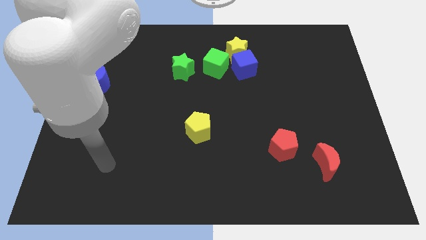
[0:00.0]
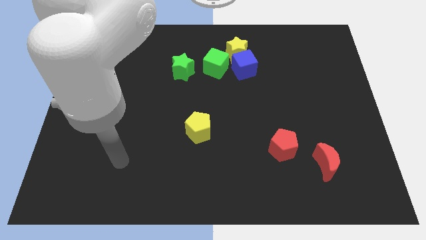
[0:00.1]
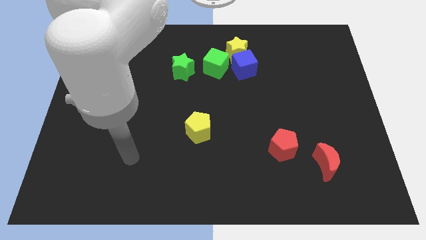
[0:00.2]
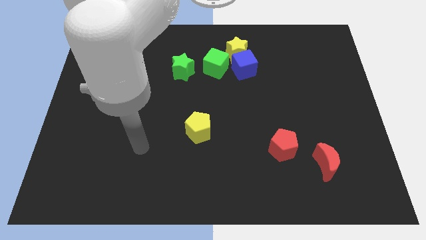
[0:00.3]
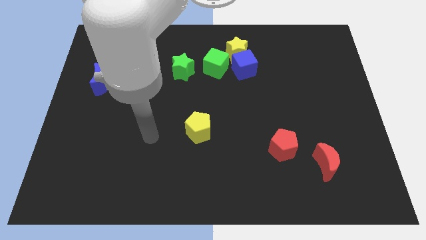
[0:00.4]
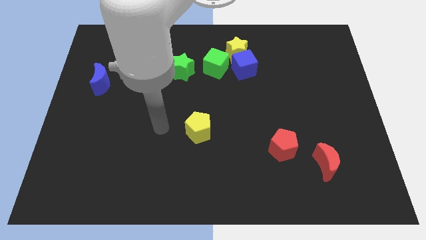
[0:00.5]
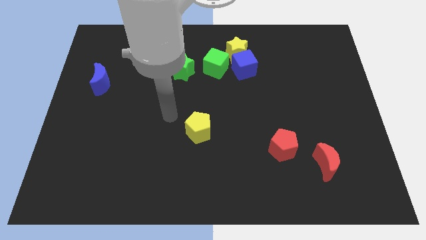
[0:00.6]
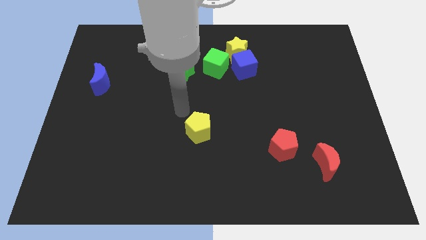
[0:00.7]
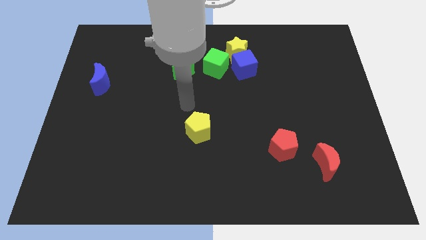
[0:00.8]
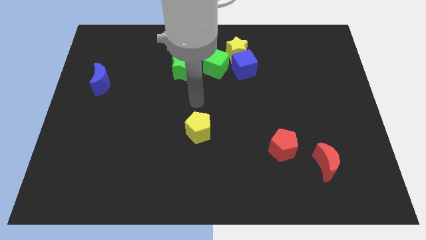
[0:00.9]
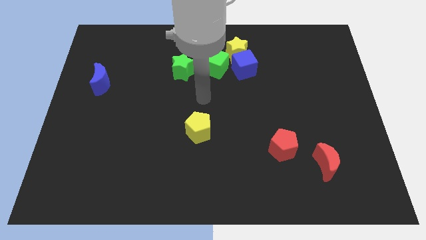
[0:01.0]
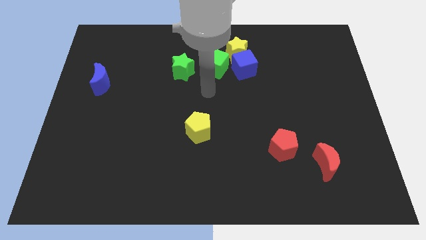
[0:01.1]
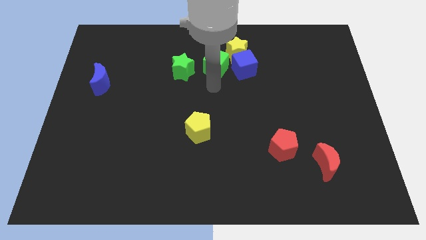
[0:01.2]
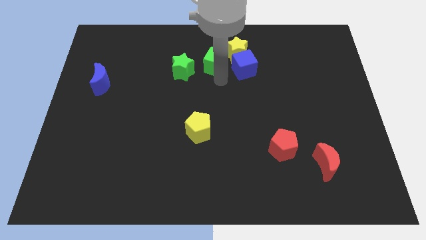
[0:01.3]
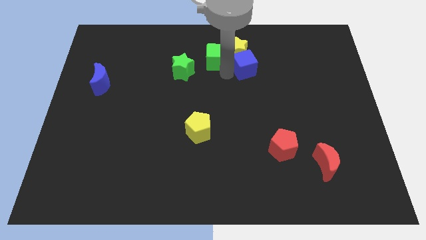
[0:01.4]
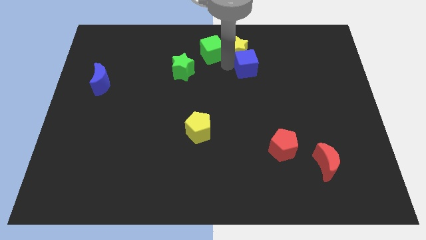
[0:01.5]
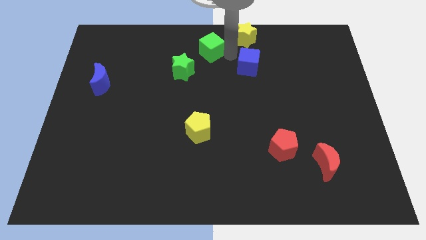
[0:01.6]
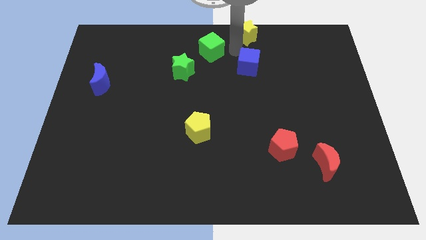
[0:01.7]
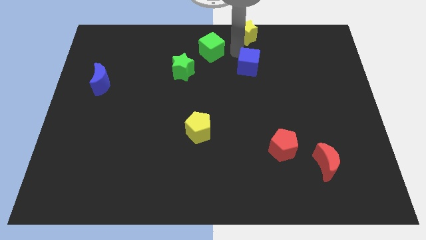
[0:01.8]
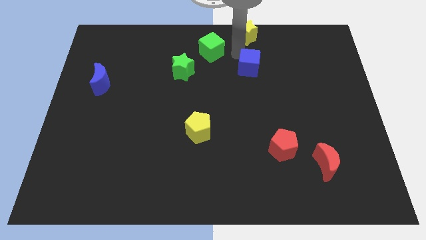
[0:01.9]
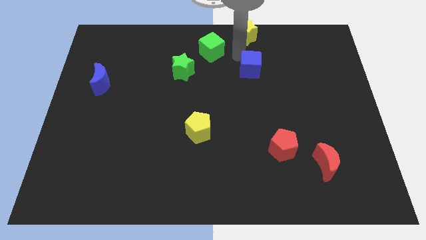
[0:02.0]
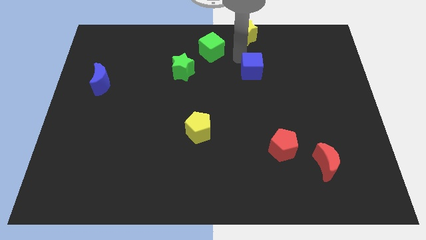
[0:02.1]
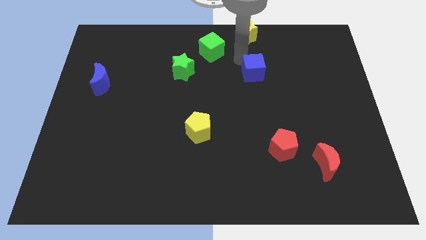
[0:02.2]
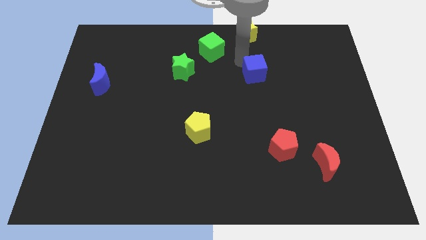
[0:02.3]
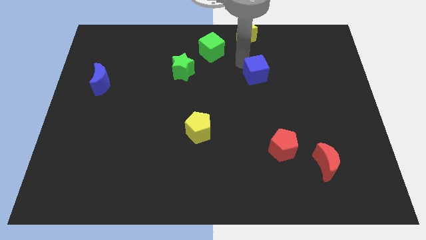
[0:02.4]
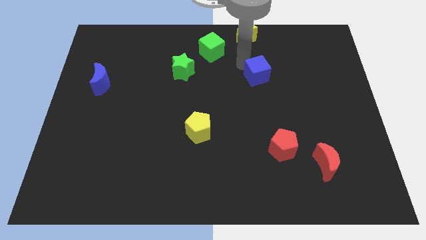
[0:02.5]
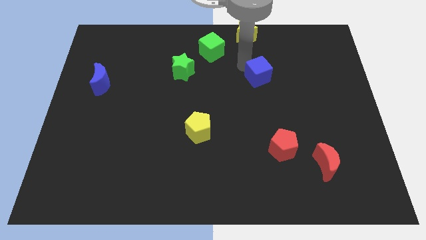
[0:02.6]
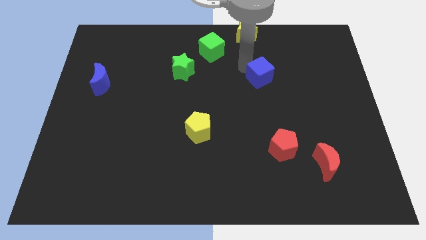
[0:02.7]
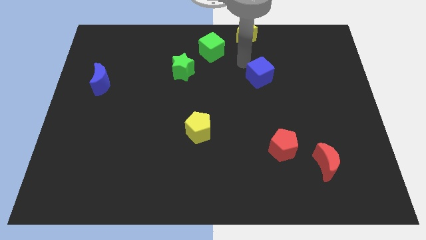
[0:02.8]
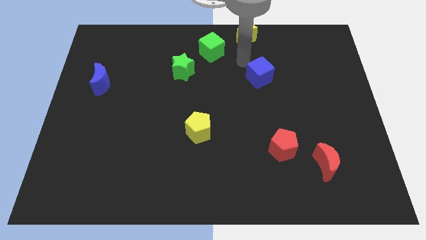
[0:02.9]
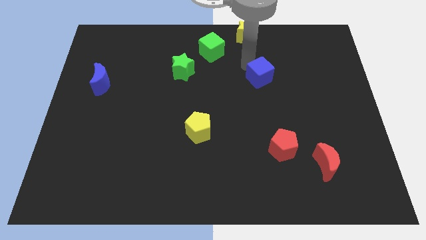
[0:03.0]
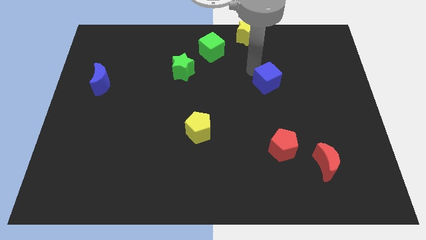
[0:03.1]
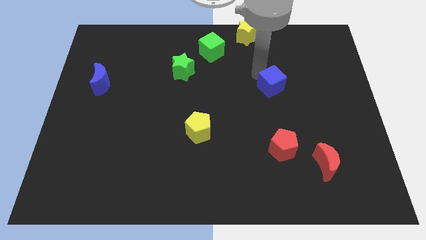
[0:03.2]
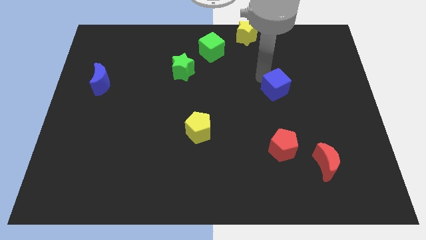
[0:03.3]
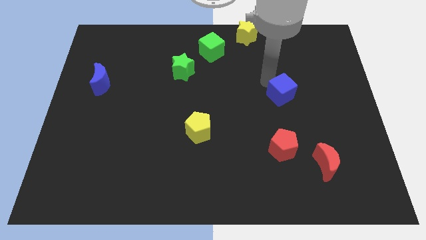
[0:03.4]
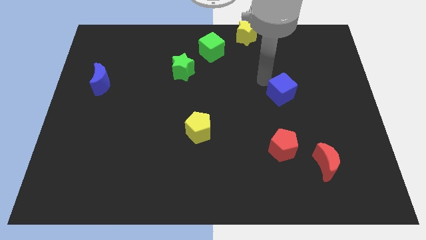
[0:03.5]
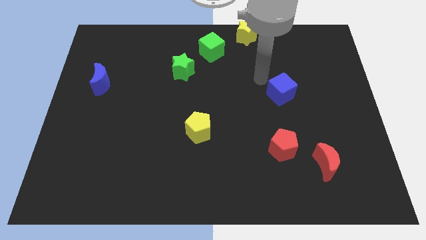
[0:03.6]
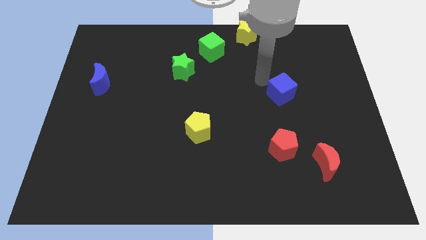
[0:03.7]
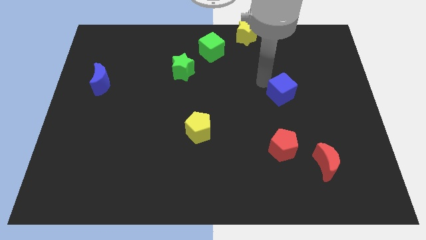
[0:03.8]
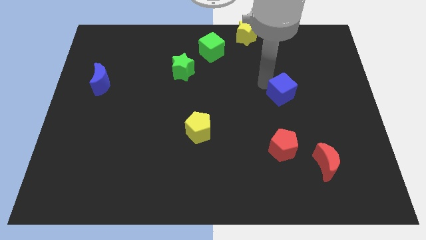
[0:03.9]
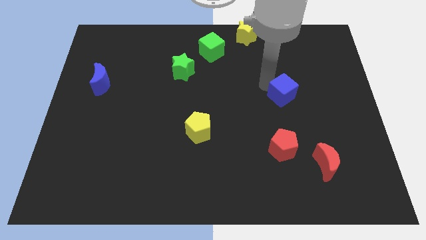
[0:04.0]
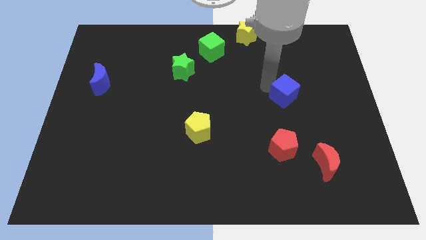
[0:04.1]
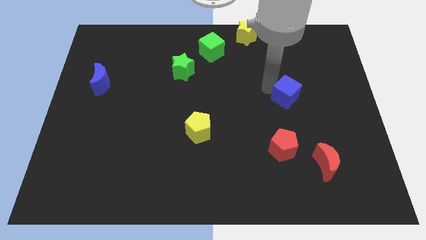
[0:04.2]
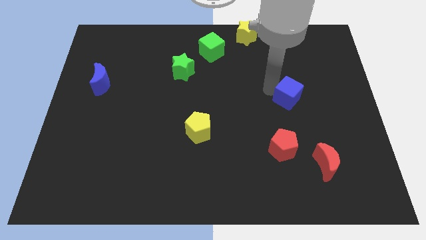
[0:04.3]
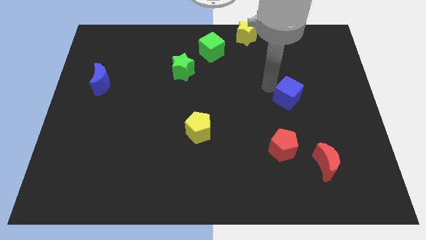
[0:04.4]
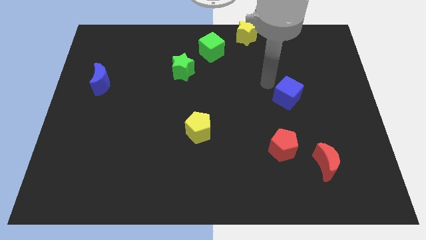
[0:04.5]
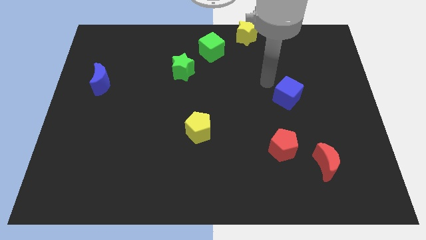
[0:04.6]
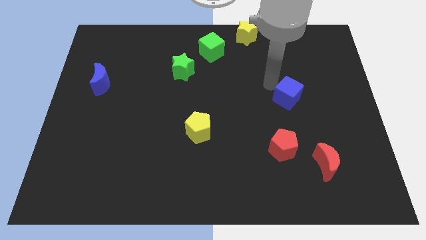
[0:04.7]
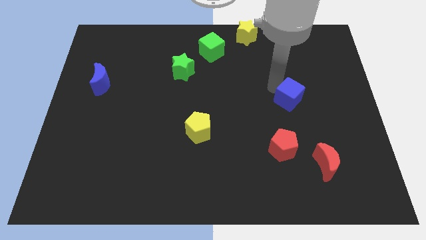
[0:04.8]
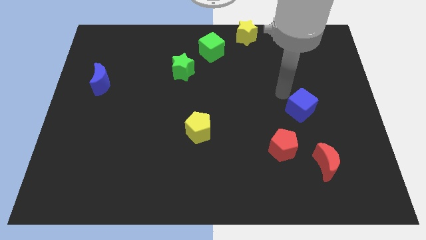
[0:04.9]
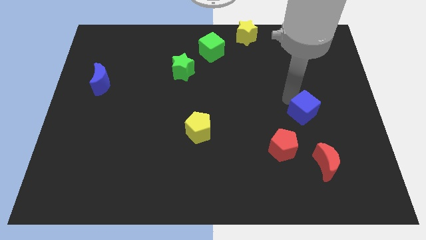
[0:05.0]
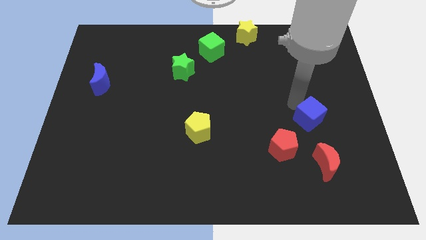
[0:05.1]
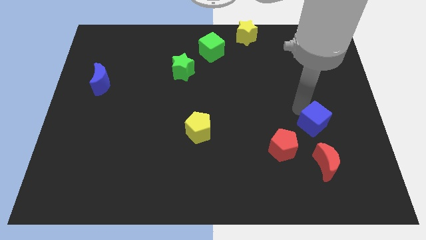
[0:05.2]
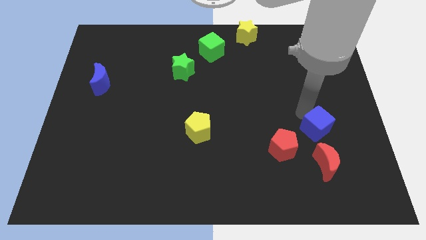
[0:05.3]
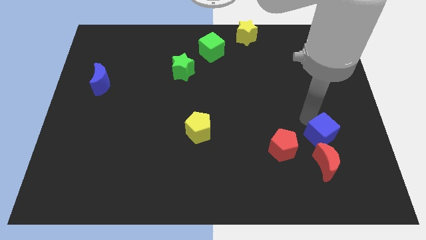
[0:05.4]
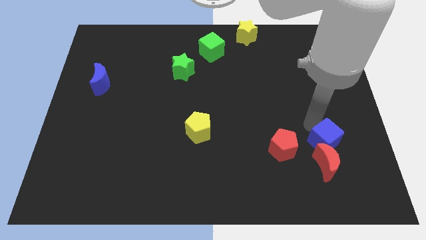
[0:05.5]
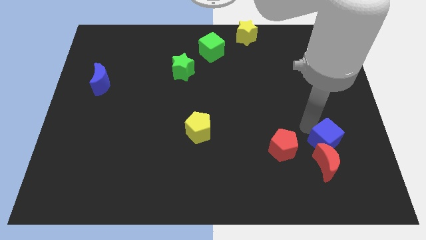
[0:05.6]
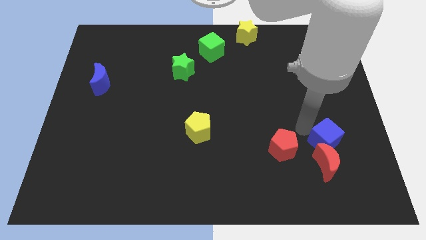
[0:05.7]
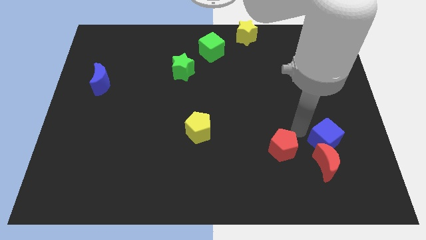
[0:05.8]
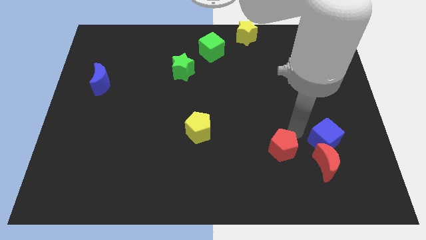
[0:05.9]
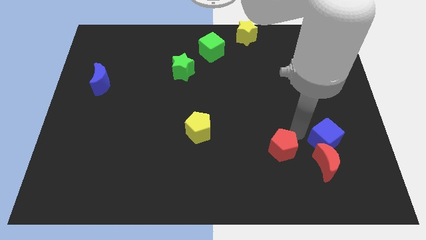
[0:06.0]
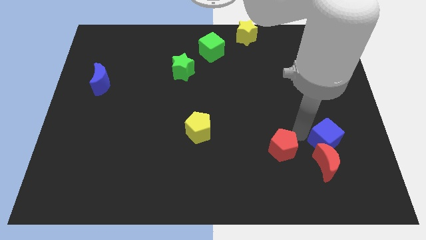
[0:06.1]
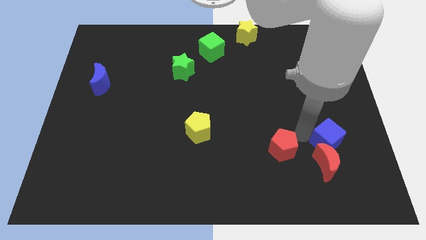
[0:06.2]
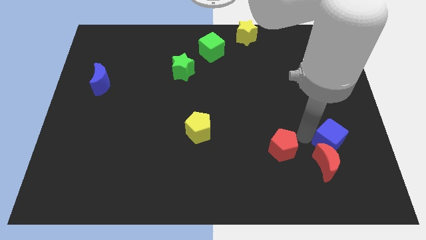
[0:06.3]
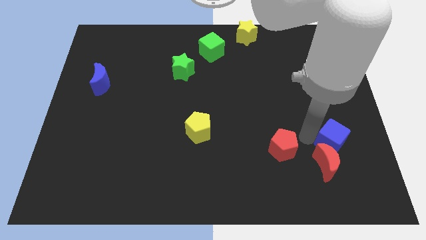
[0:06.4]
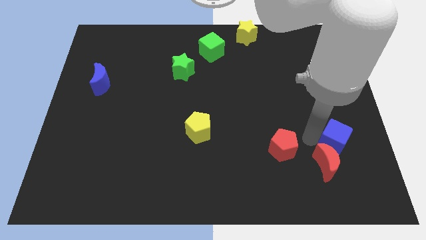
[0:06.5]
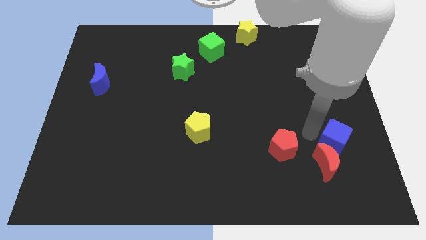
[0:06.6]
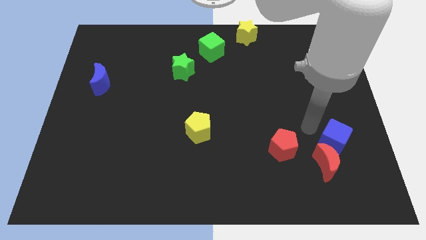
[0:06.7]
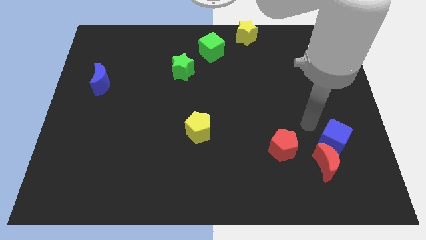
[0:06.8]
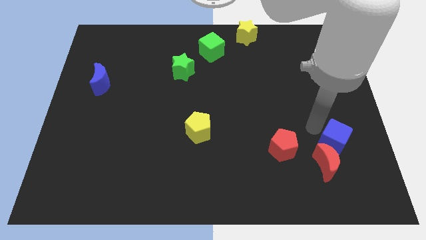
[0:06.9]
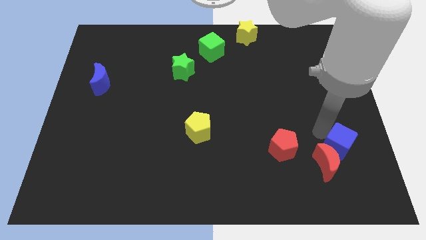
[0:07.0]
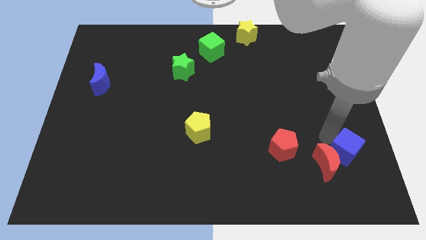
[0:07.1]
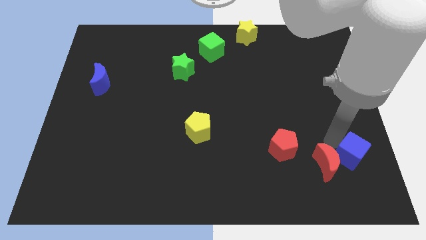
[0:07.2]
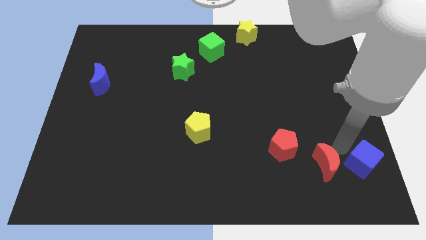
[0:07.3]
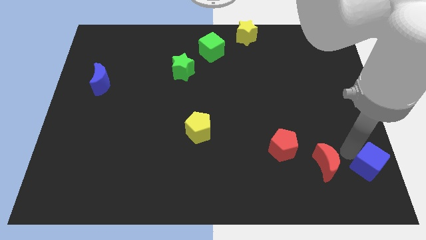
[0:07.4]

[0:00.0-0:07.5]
move the blue cube to the bottom right corner
